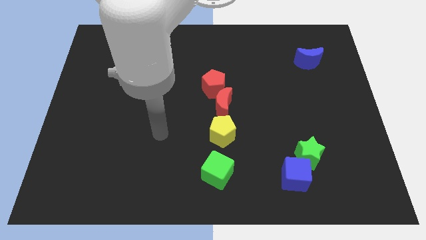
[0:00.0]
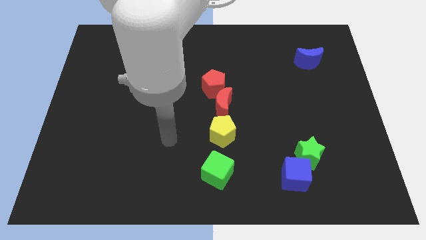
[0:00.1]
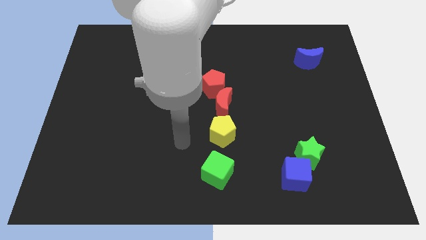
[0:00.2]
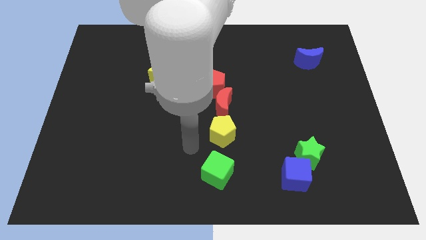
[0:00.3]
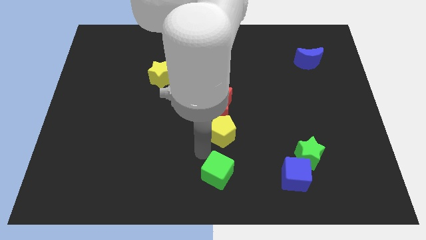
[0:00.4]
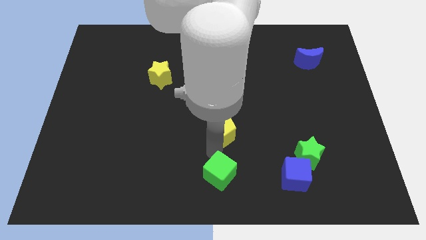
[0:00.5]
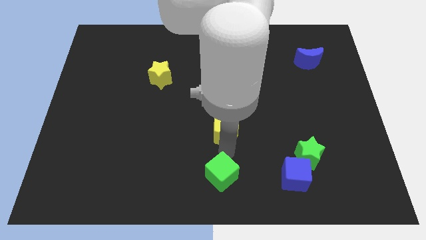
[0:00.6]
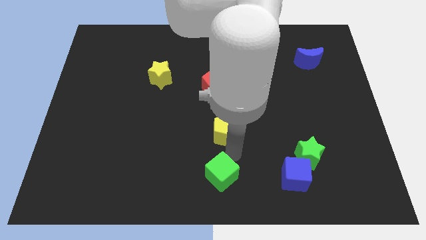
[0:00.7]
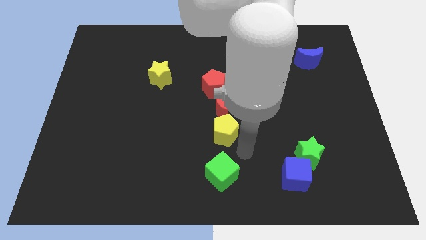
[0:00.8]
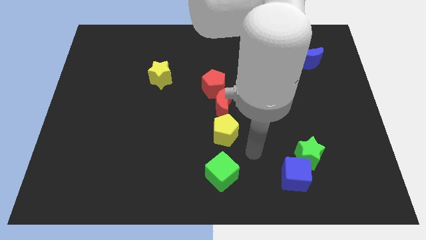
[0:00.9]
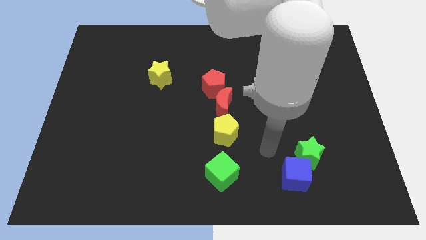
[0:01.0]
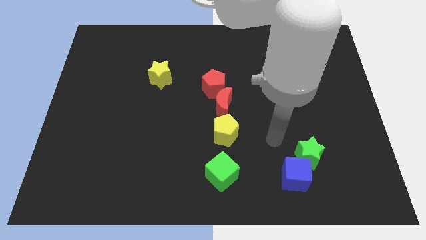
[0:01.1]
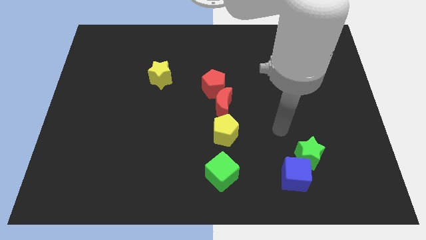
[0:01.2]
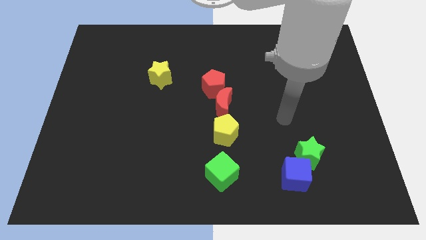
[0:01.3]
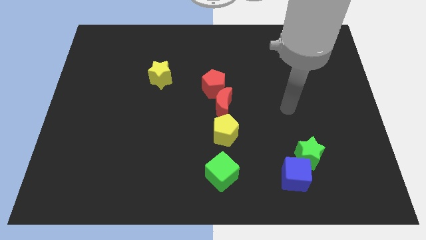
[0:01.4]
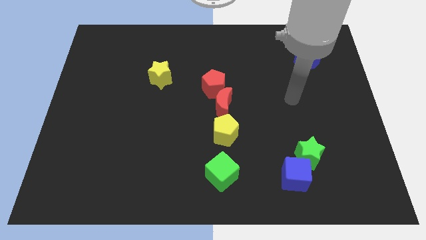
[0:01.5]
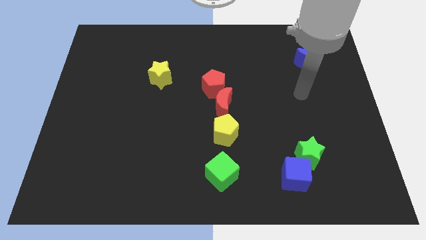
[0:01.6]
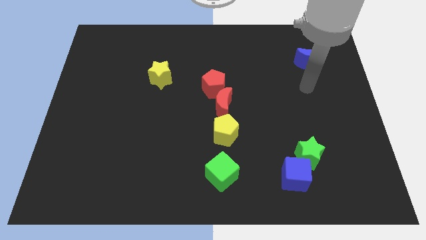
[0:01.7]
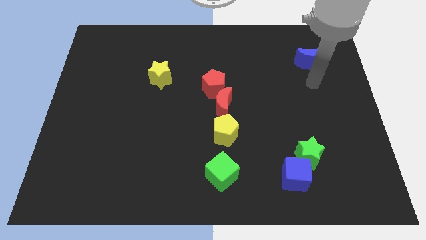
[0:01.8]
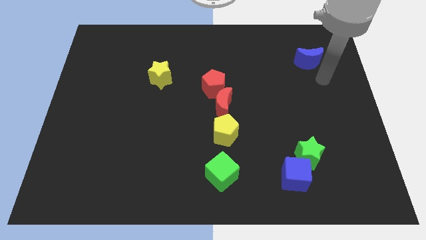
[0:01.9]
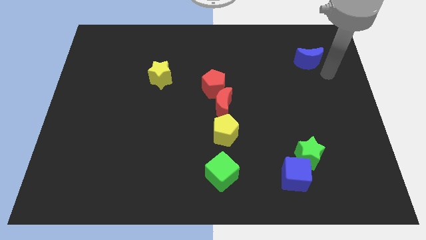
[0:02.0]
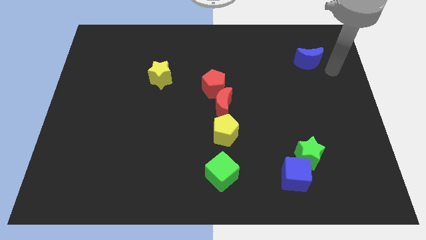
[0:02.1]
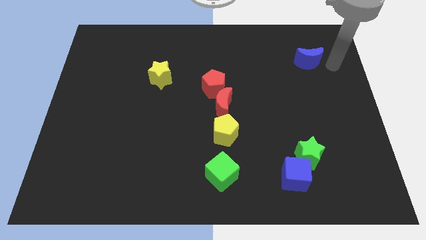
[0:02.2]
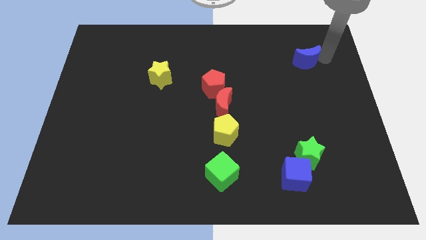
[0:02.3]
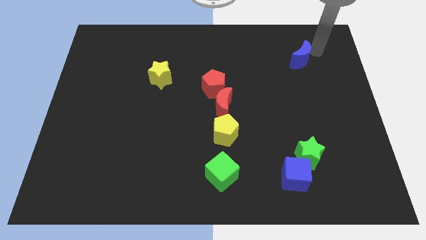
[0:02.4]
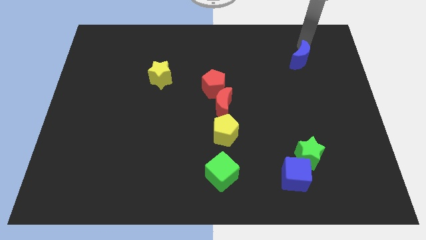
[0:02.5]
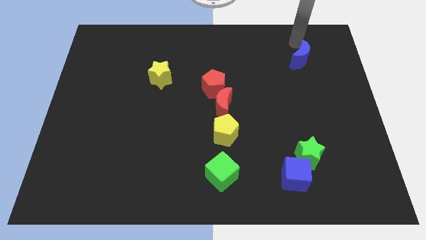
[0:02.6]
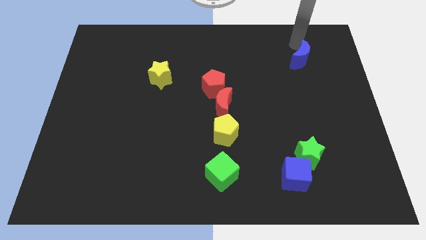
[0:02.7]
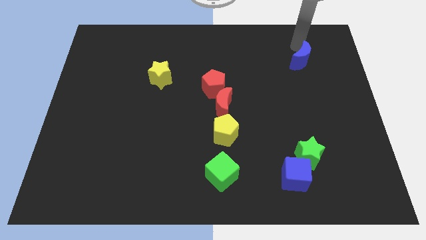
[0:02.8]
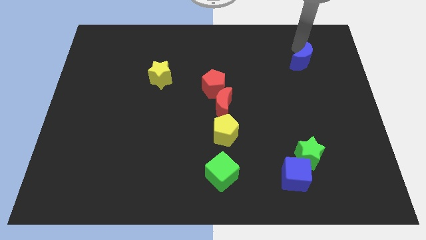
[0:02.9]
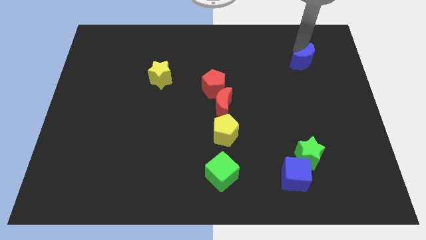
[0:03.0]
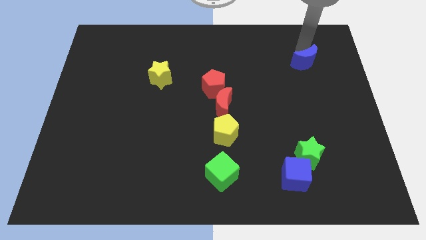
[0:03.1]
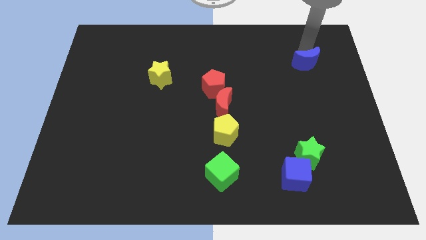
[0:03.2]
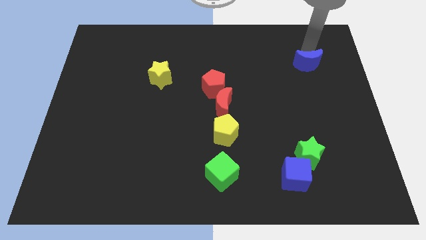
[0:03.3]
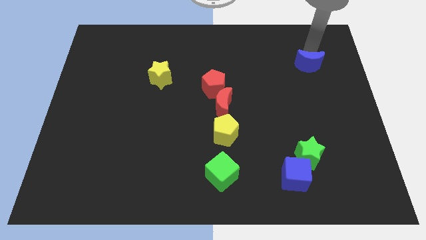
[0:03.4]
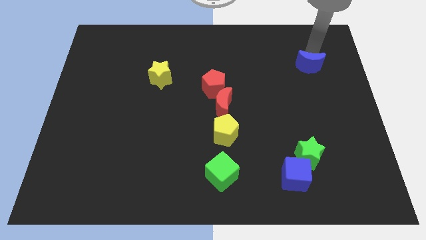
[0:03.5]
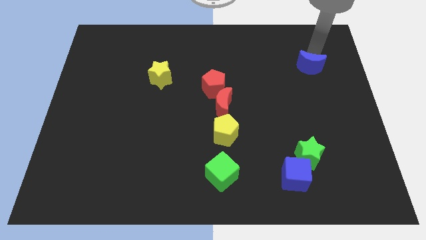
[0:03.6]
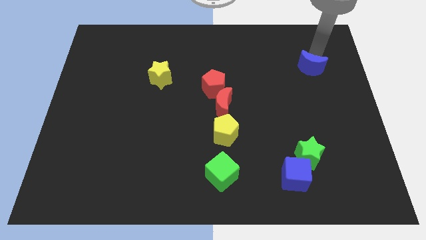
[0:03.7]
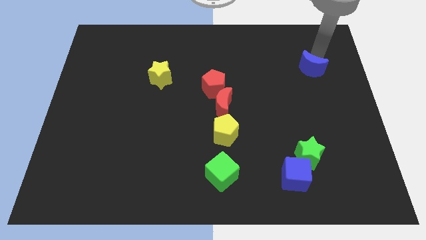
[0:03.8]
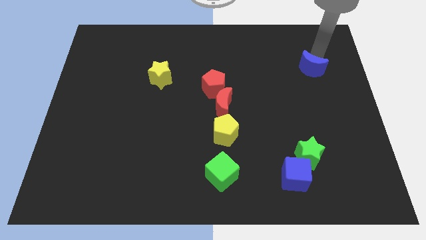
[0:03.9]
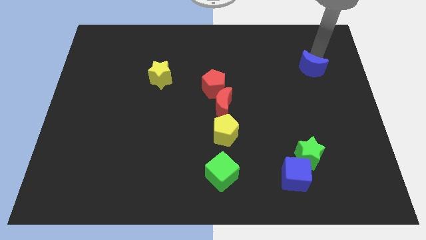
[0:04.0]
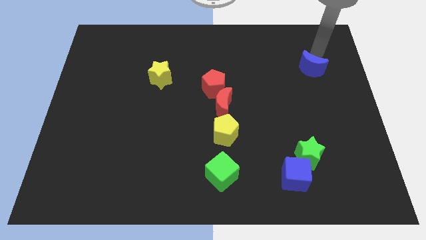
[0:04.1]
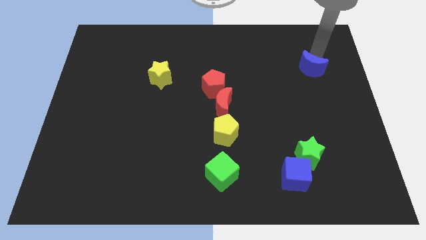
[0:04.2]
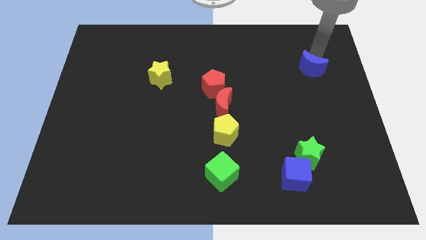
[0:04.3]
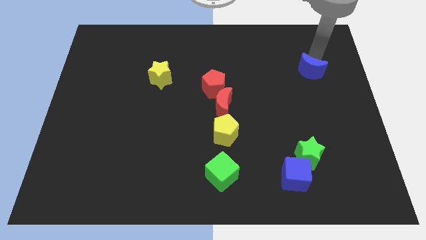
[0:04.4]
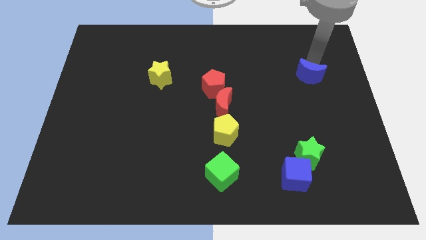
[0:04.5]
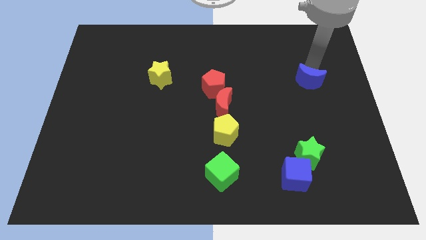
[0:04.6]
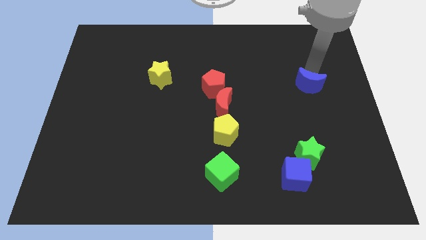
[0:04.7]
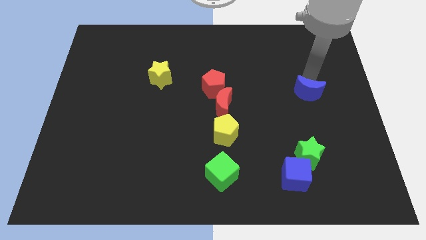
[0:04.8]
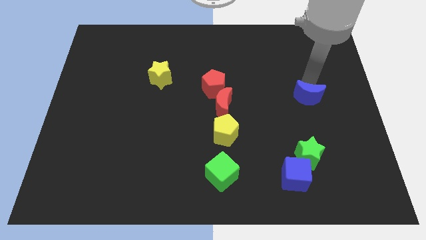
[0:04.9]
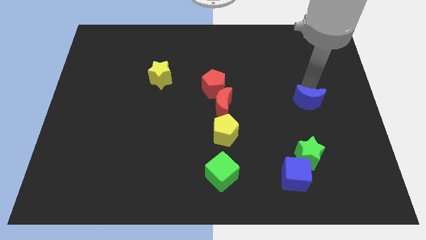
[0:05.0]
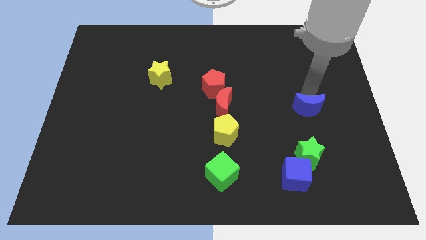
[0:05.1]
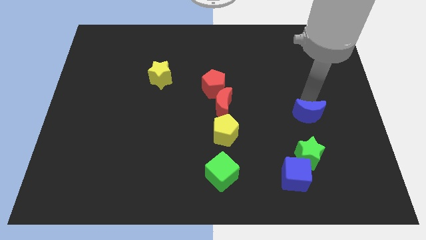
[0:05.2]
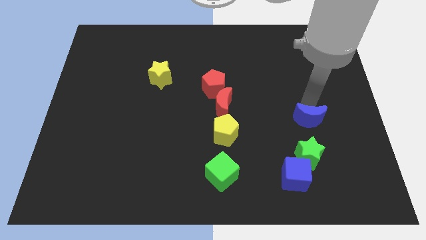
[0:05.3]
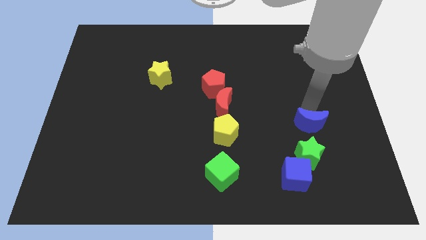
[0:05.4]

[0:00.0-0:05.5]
push the blue moon downwards

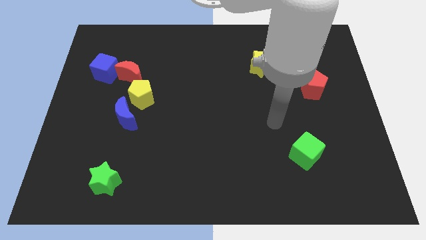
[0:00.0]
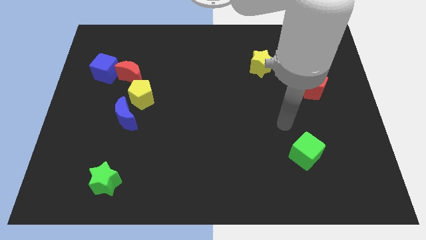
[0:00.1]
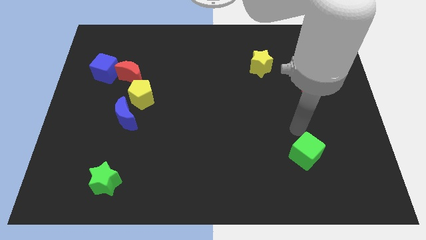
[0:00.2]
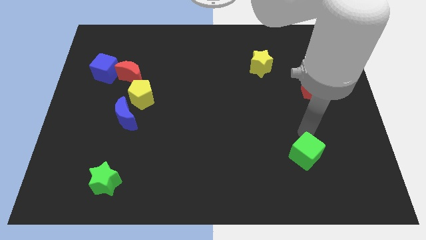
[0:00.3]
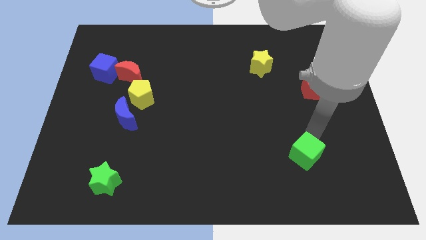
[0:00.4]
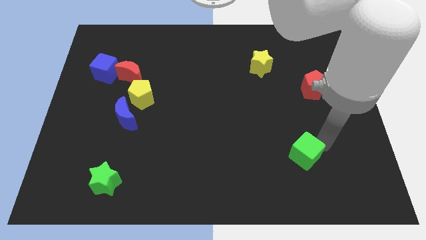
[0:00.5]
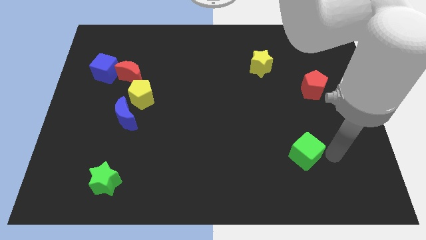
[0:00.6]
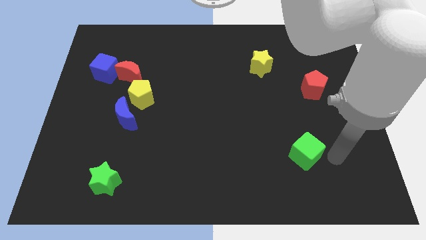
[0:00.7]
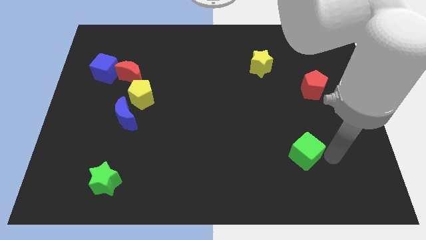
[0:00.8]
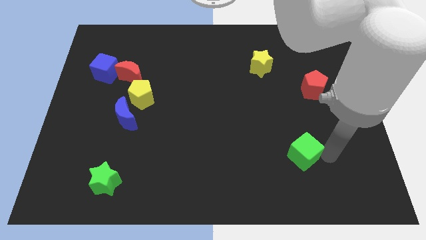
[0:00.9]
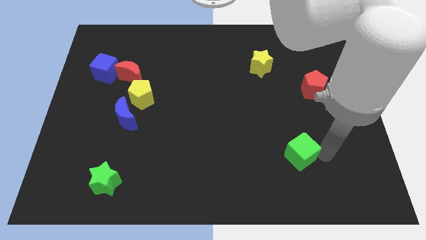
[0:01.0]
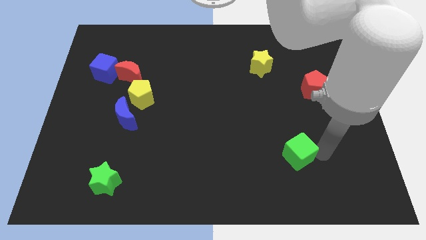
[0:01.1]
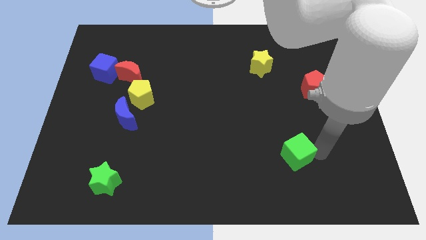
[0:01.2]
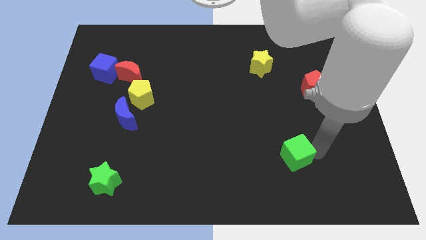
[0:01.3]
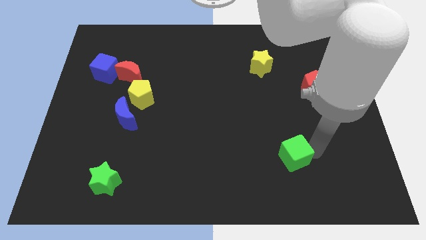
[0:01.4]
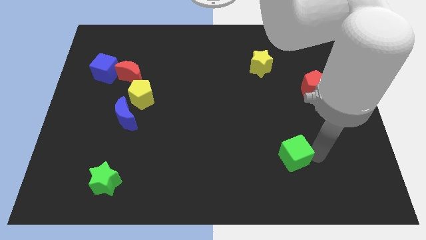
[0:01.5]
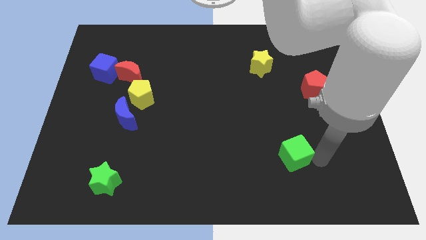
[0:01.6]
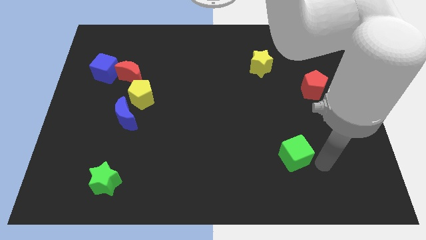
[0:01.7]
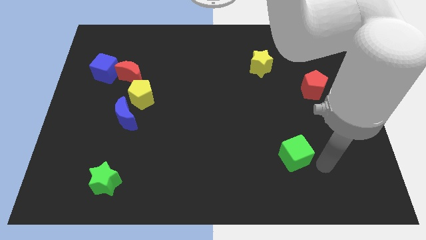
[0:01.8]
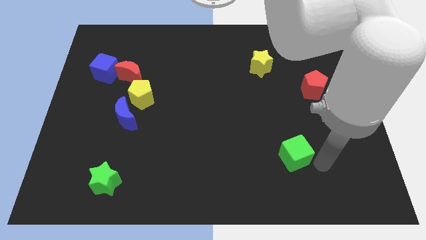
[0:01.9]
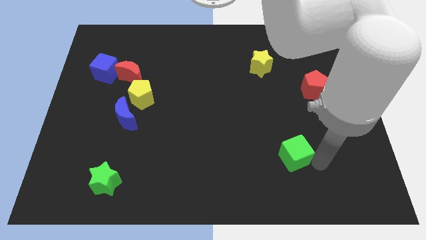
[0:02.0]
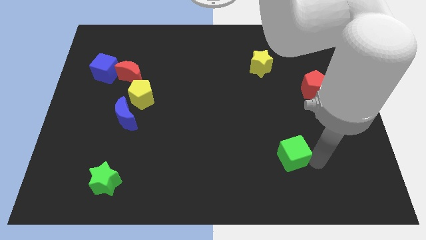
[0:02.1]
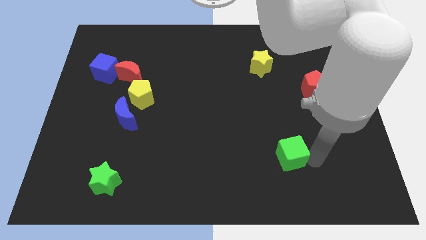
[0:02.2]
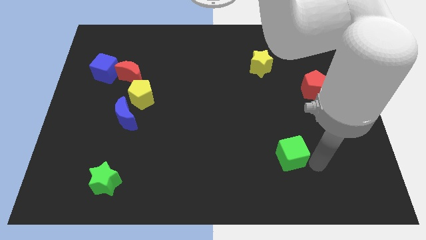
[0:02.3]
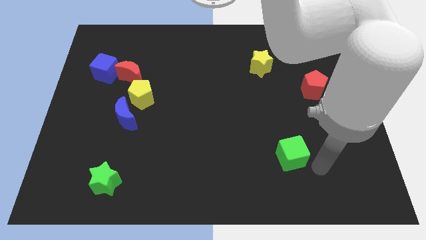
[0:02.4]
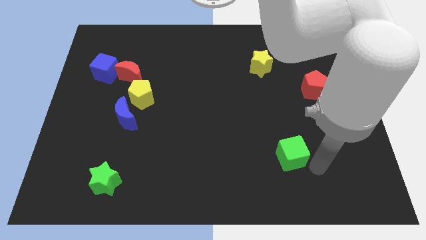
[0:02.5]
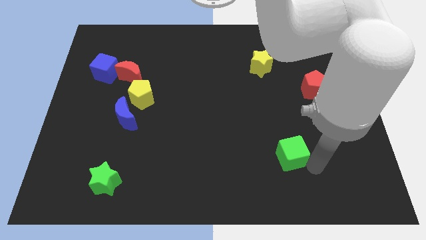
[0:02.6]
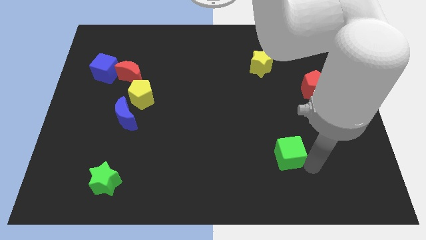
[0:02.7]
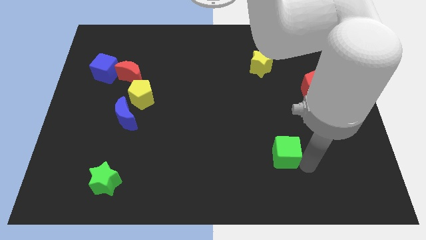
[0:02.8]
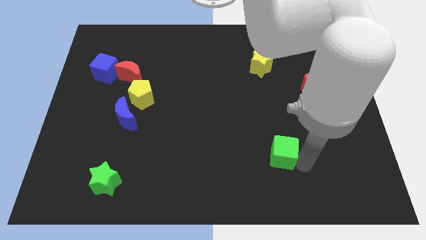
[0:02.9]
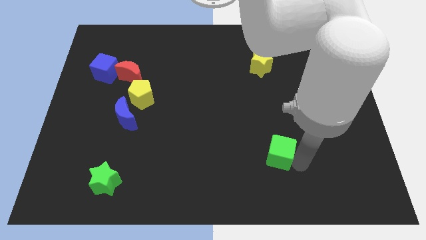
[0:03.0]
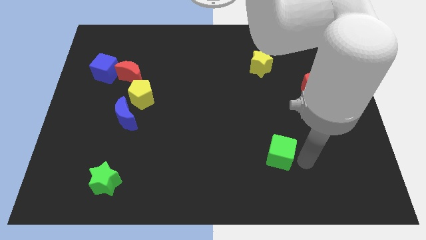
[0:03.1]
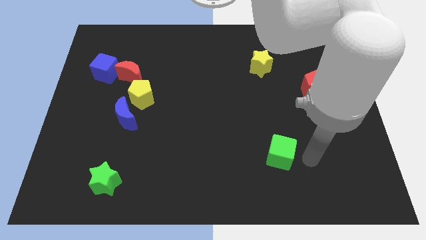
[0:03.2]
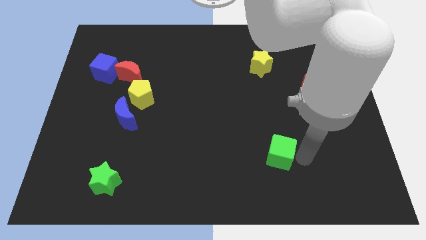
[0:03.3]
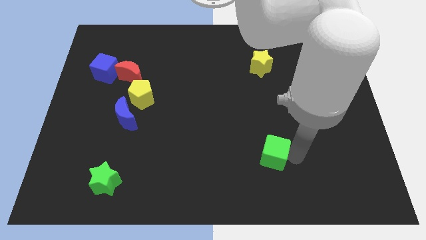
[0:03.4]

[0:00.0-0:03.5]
slide the green cube left a bit
